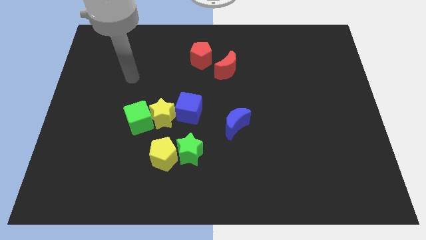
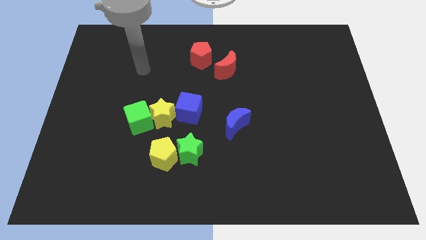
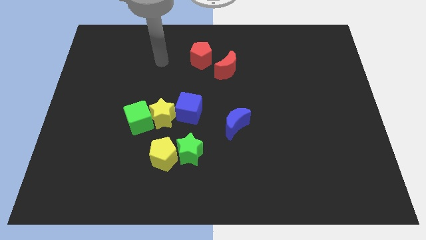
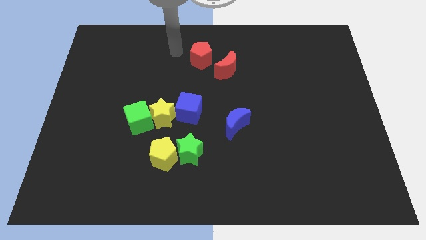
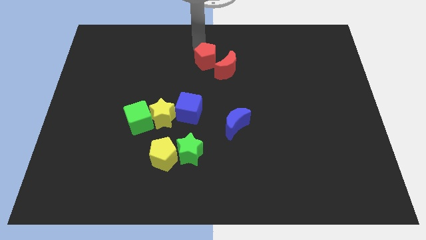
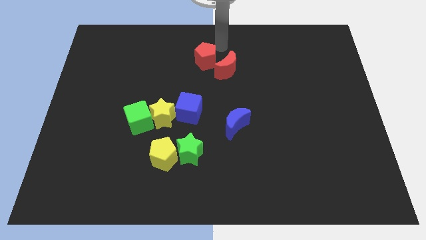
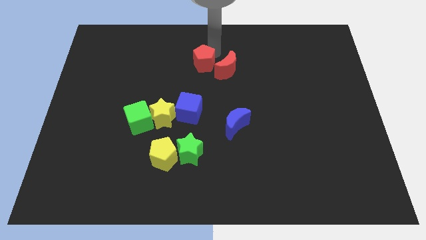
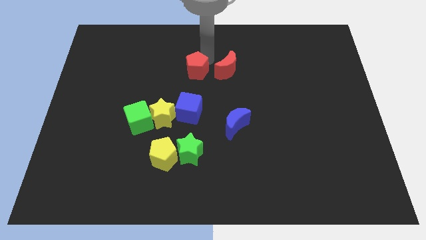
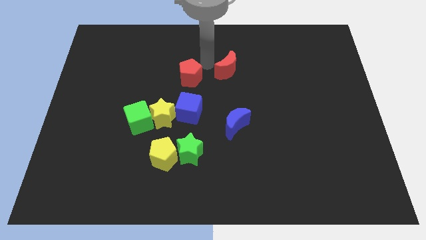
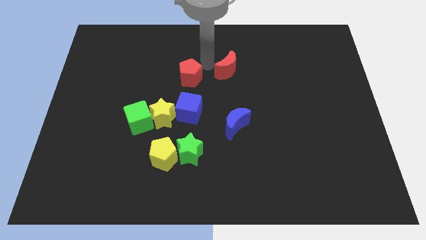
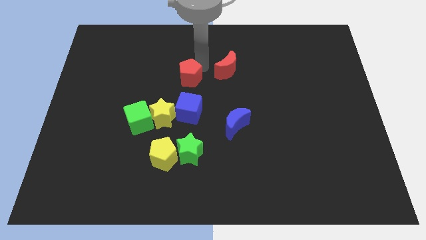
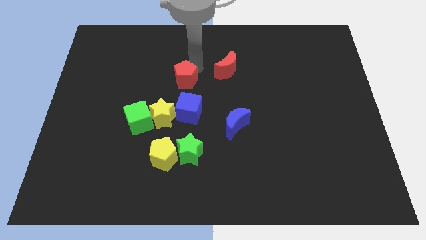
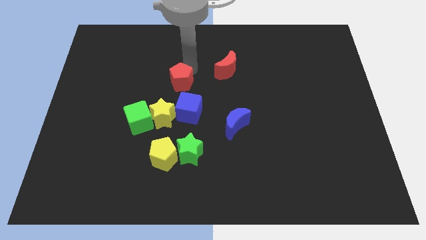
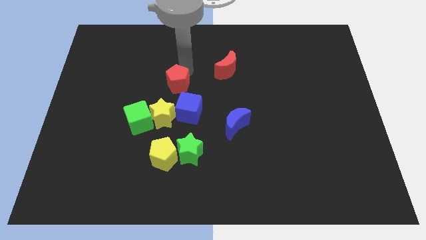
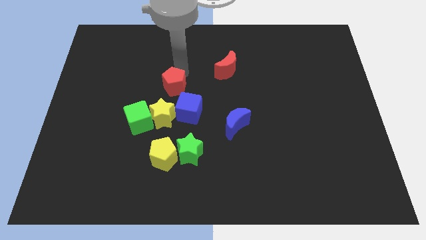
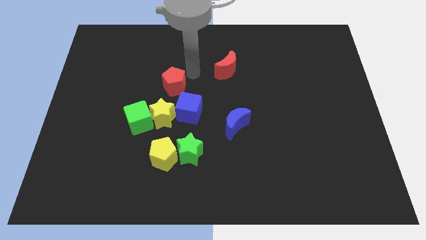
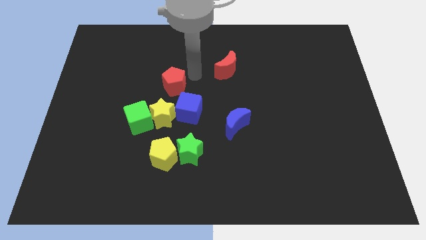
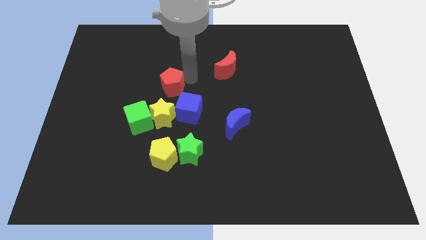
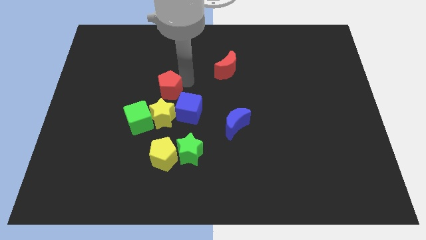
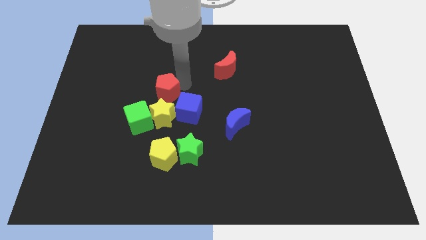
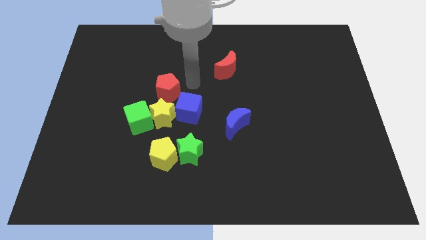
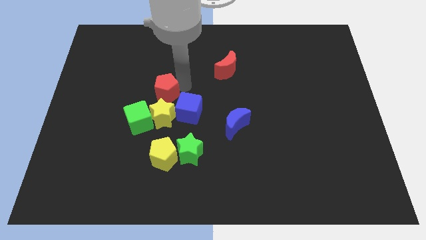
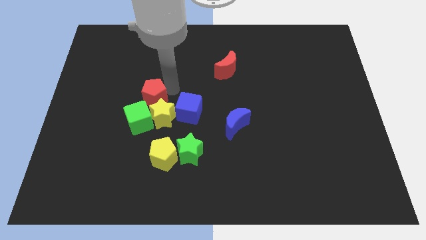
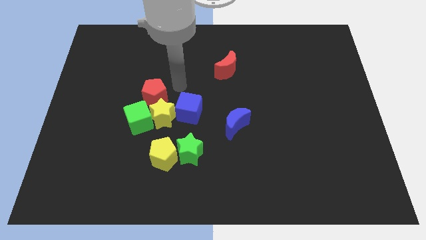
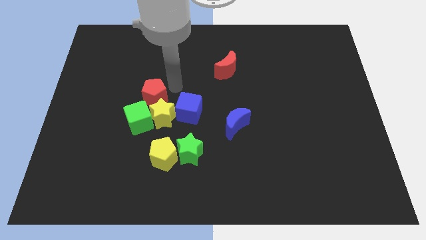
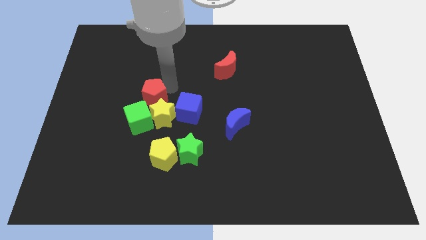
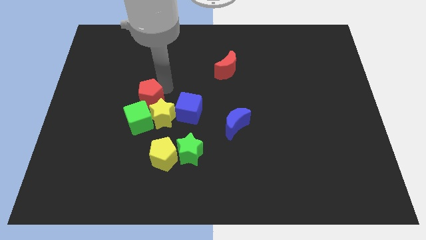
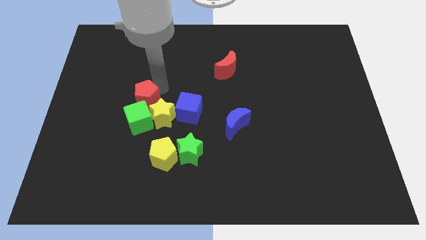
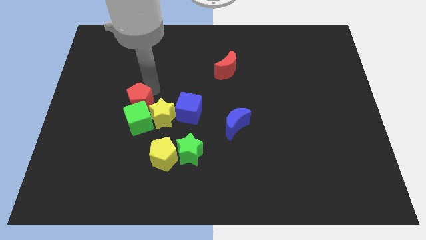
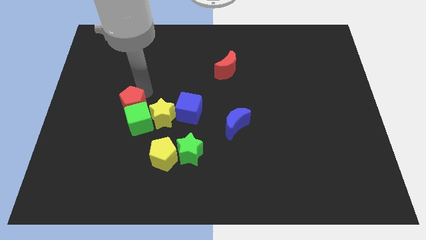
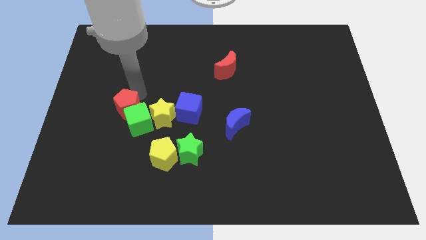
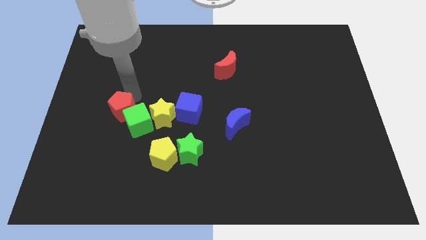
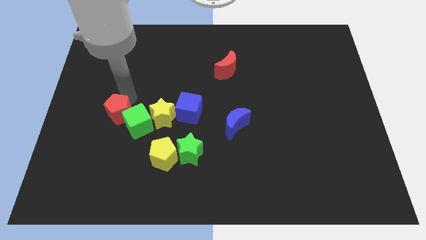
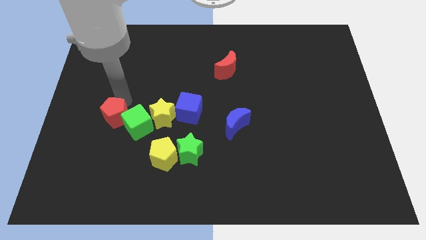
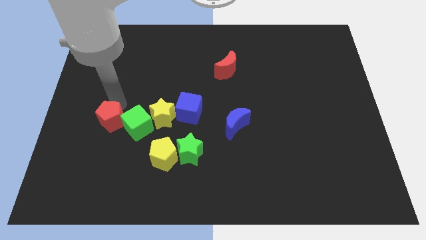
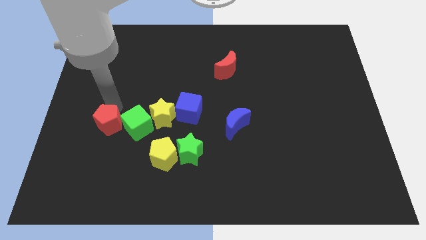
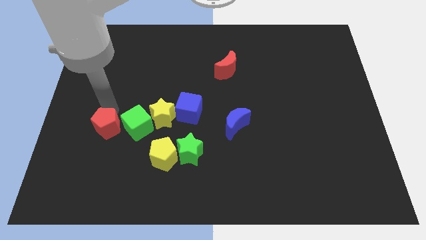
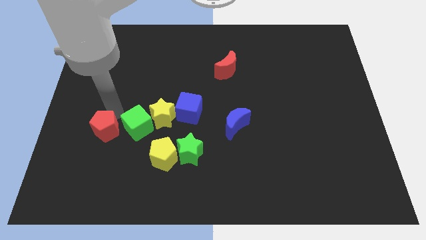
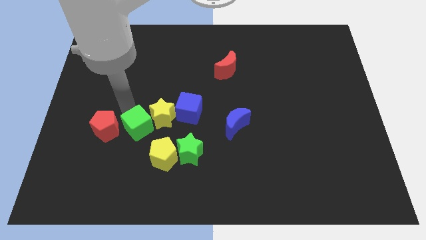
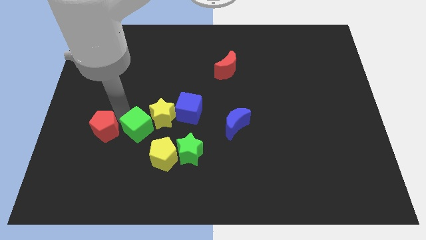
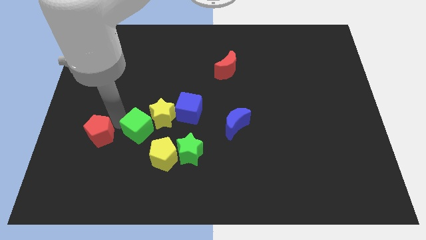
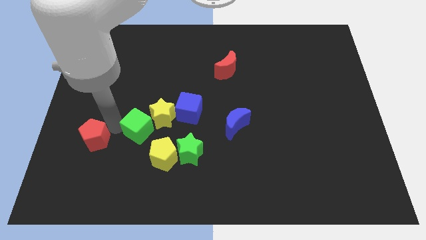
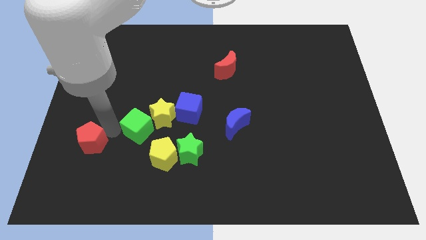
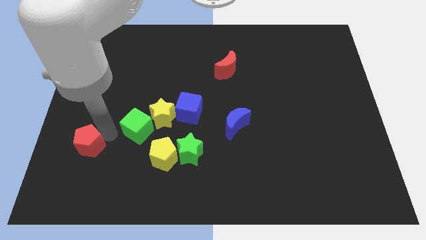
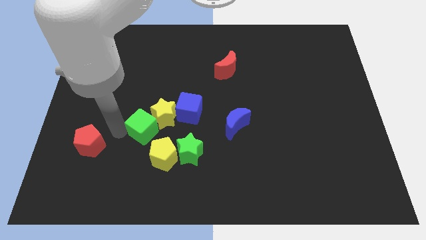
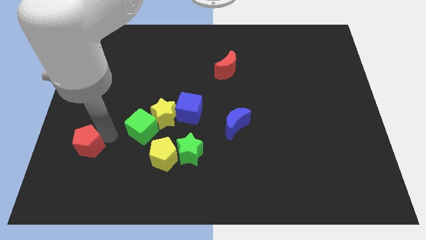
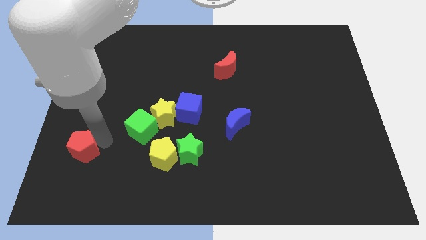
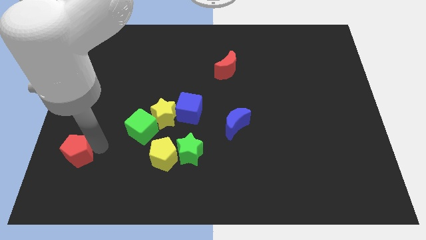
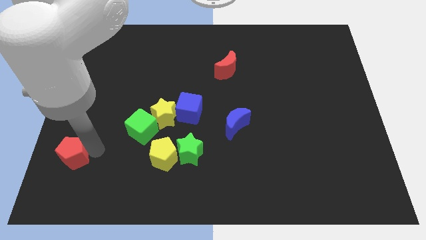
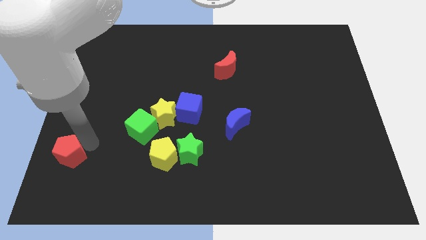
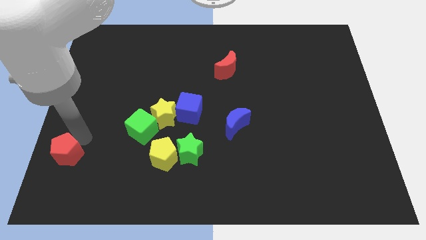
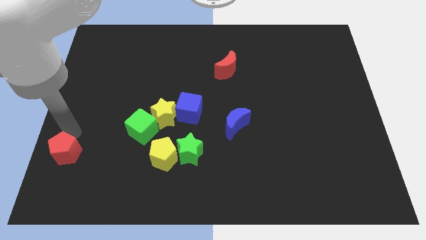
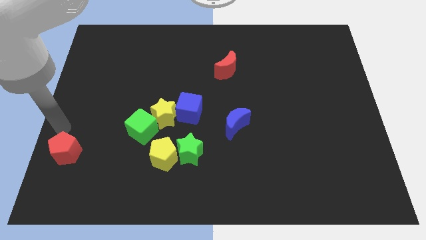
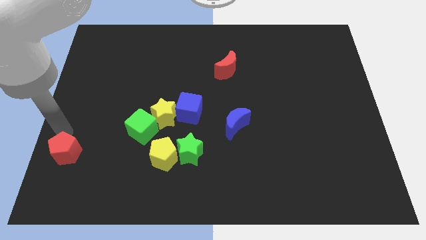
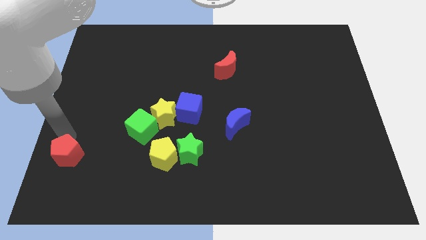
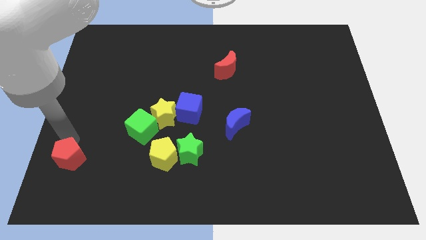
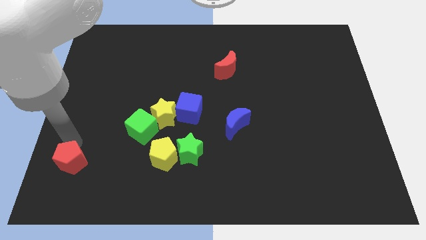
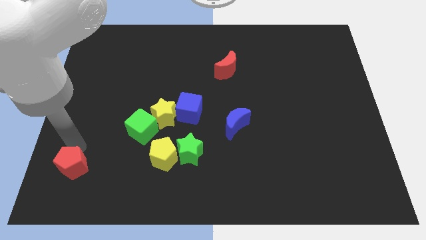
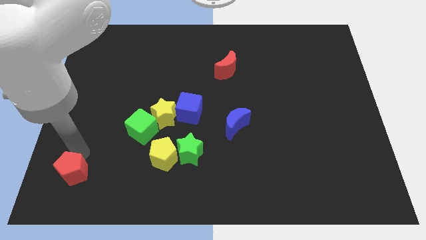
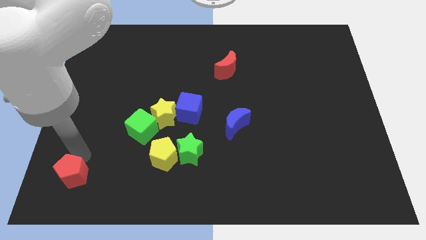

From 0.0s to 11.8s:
slide the red pentagon to the bottom left
